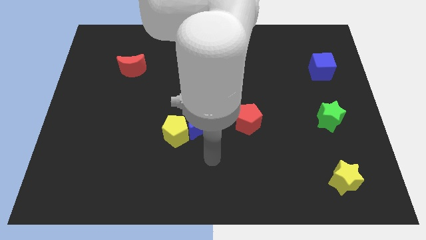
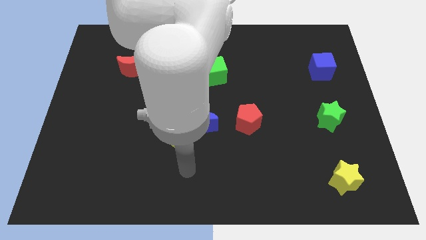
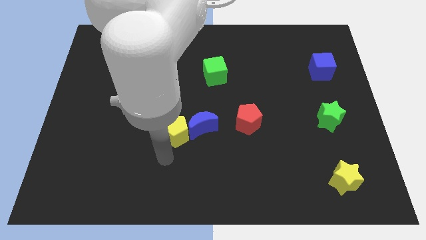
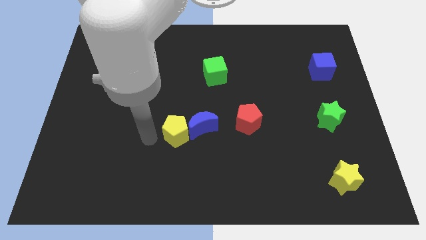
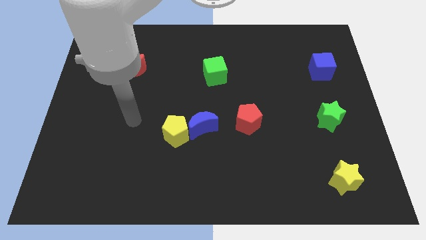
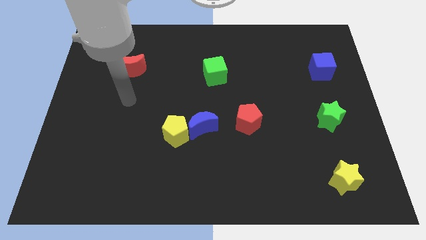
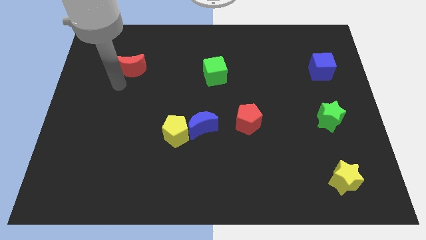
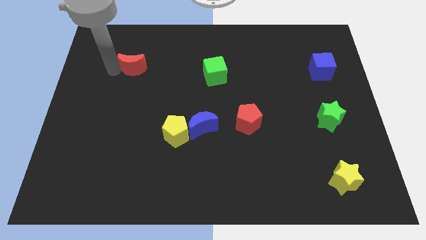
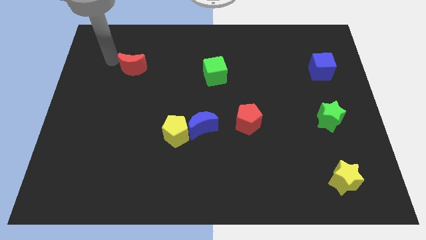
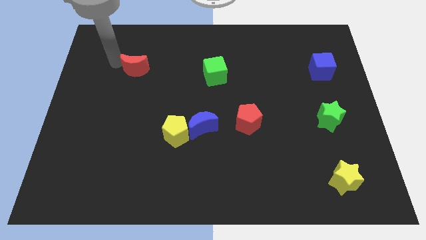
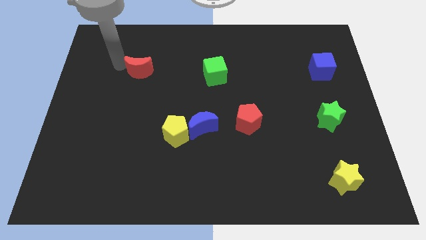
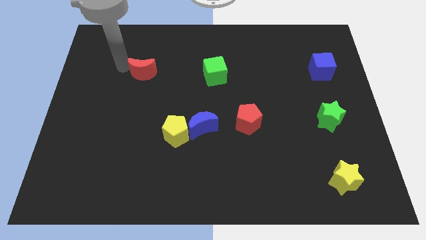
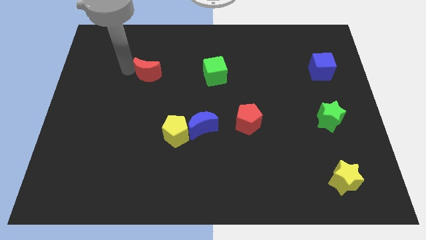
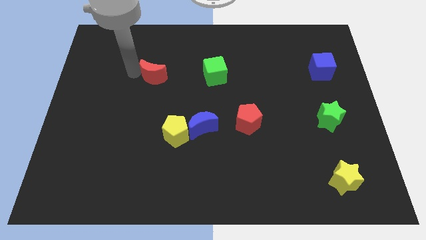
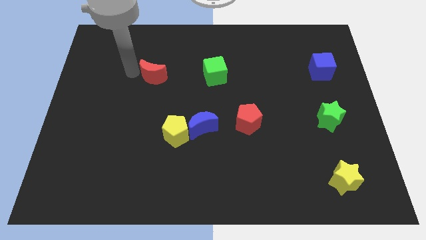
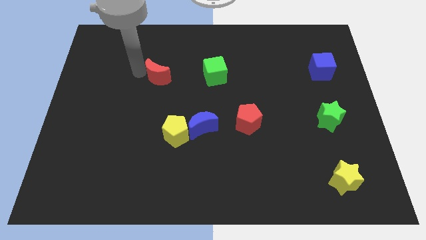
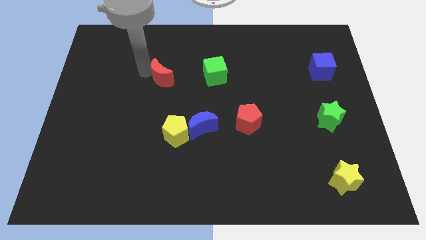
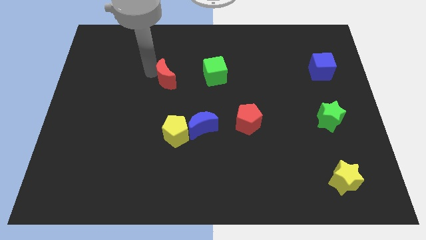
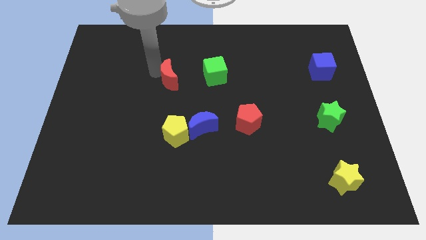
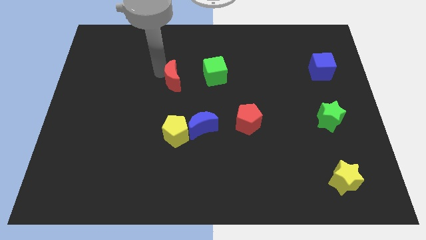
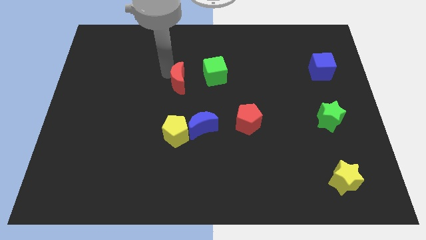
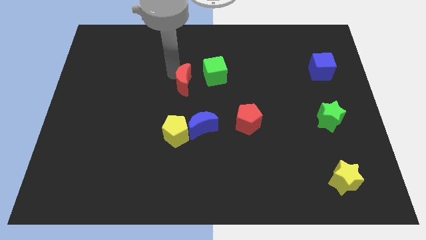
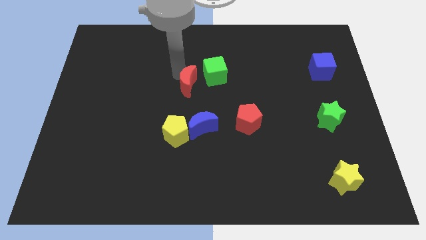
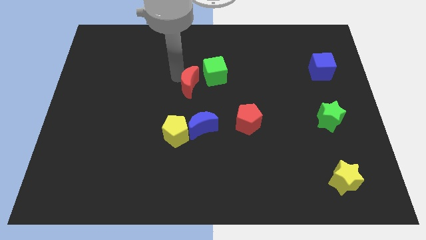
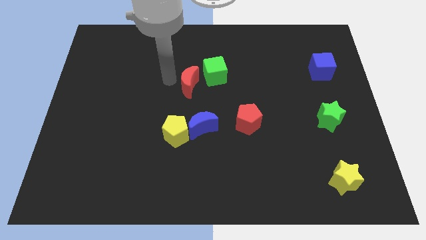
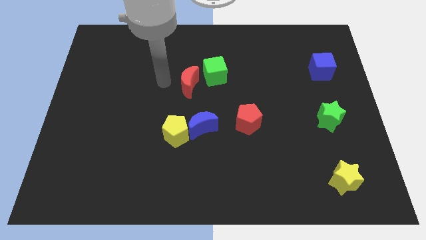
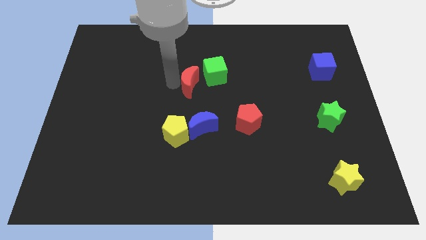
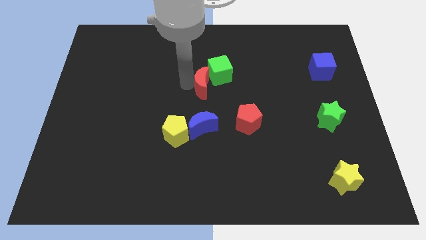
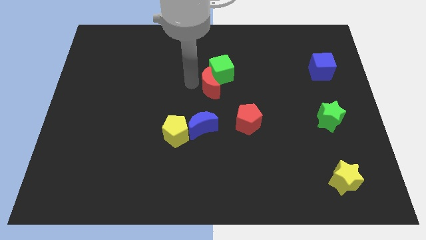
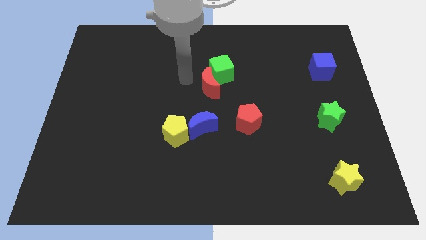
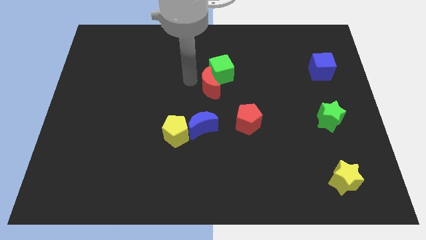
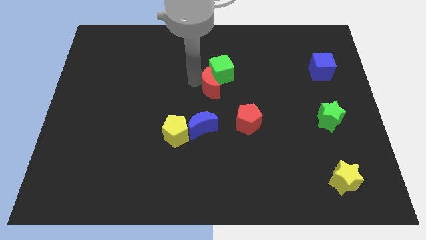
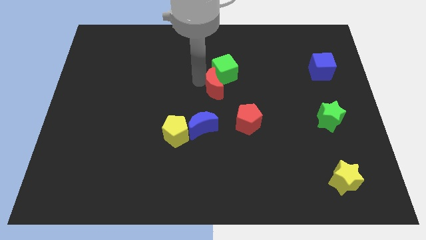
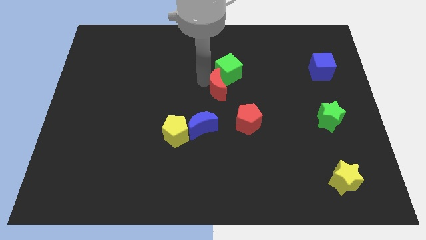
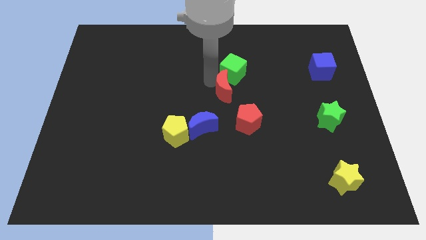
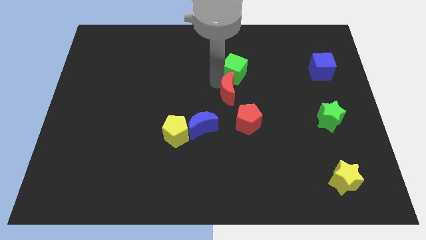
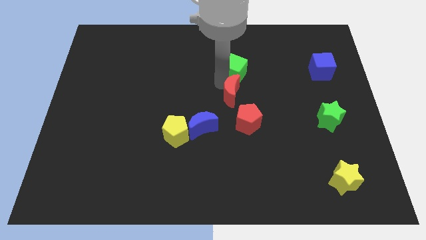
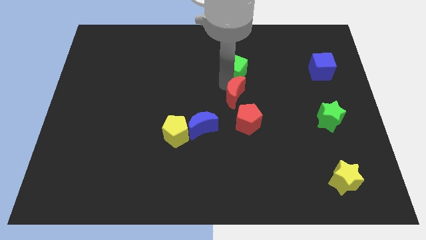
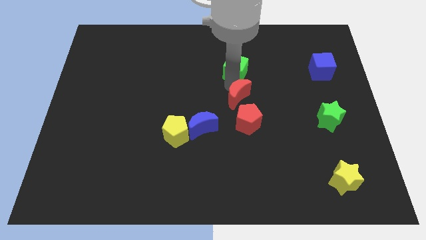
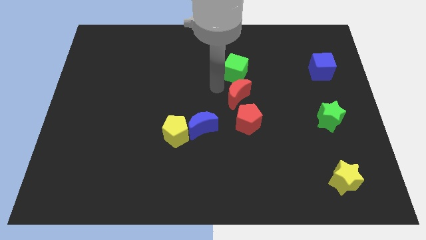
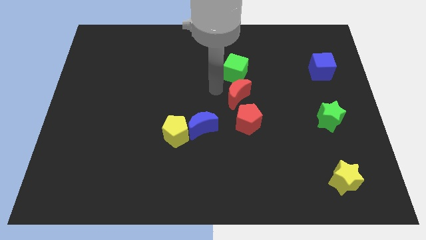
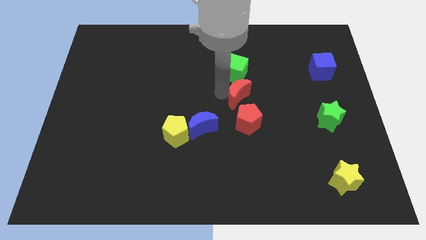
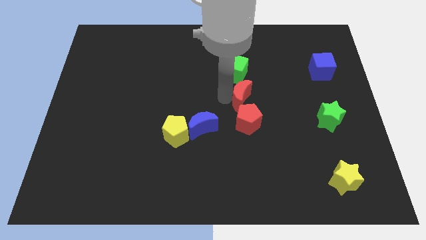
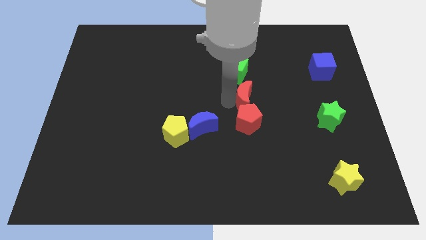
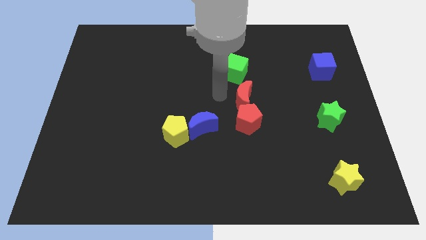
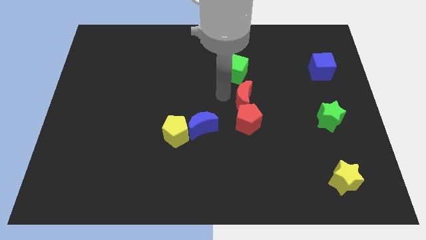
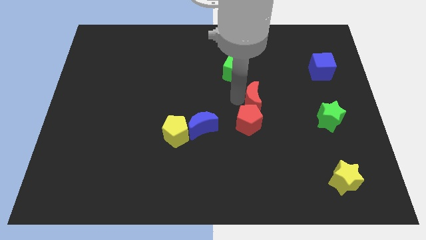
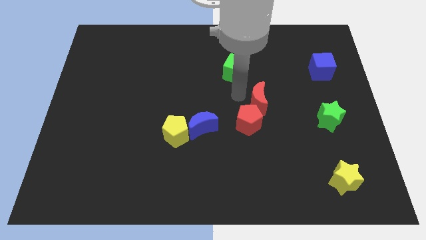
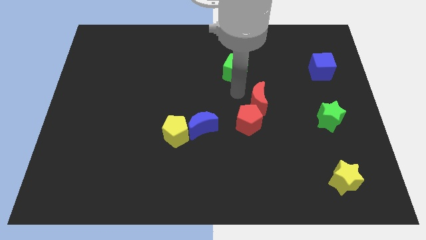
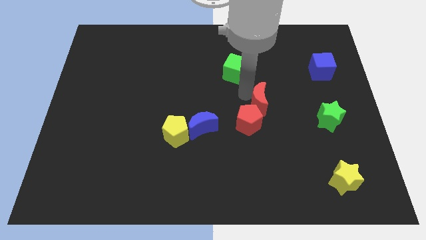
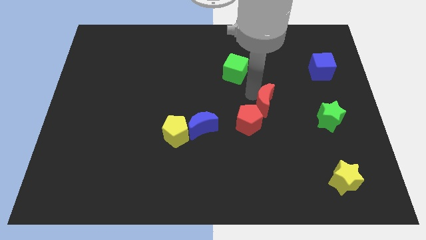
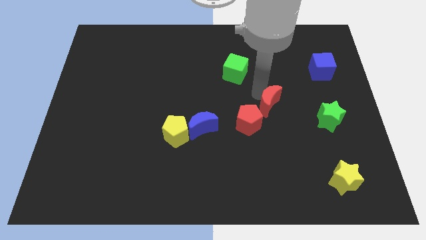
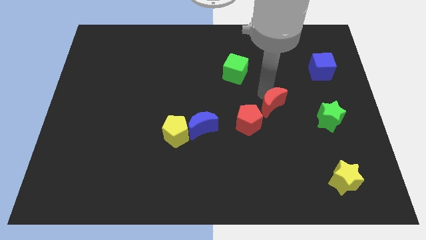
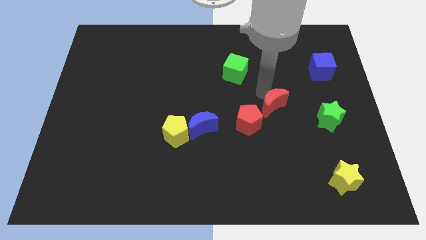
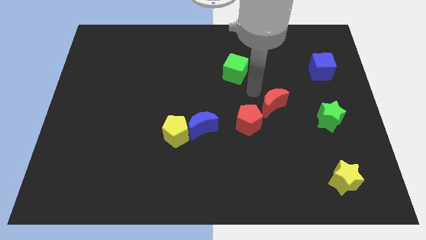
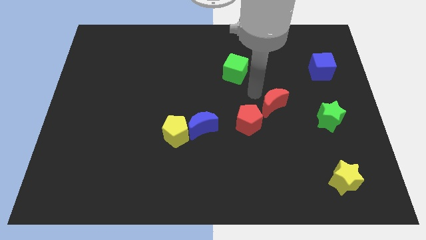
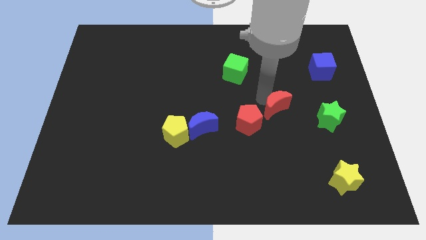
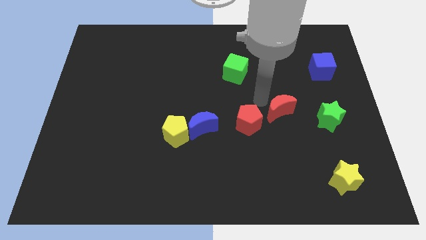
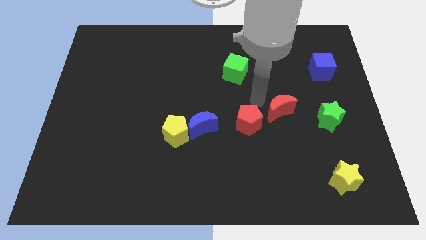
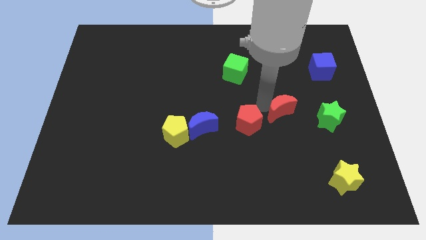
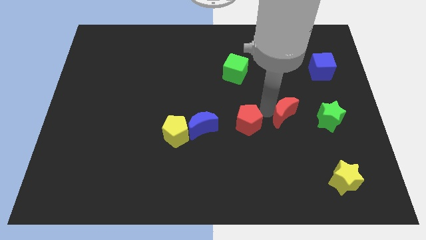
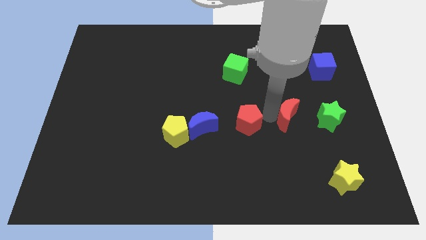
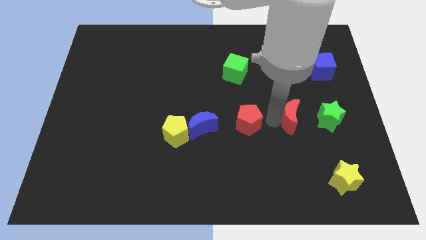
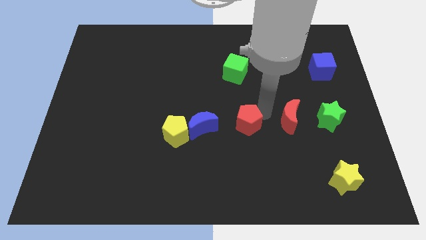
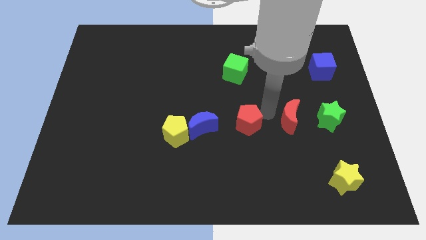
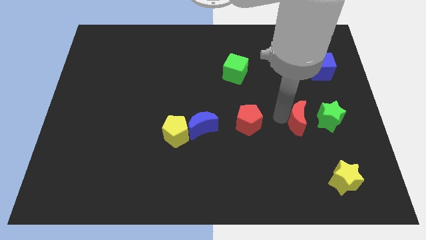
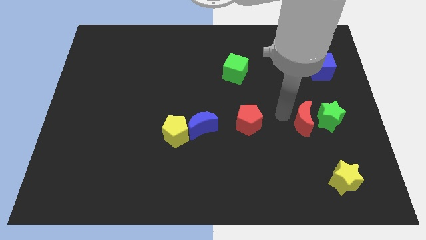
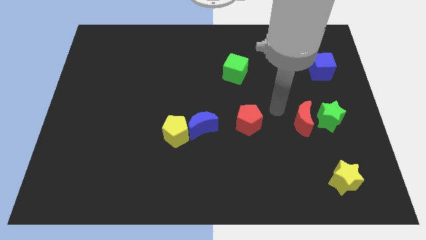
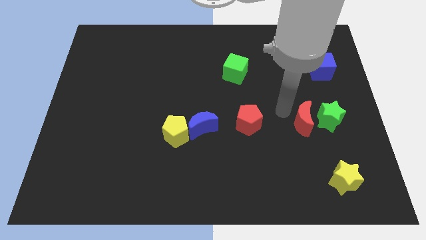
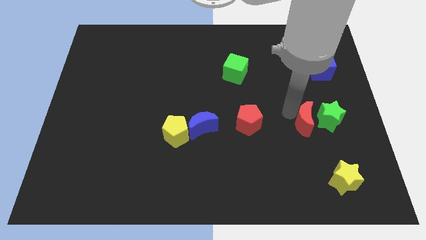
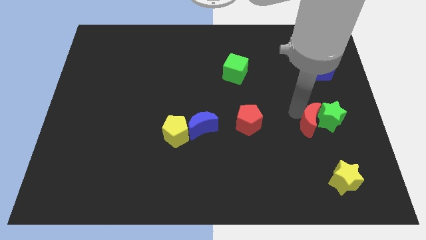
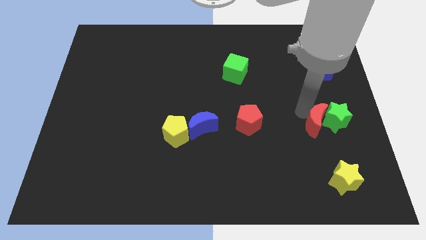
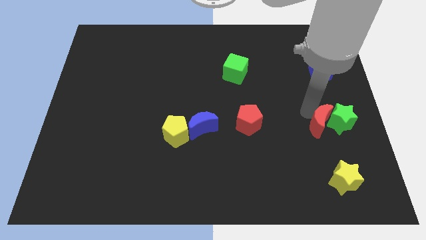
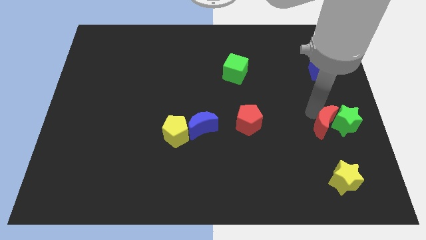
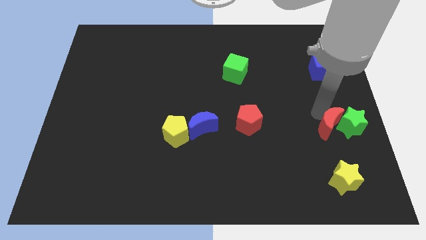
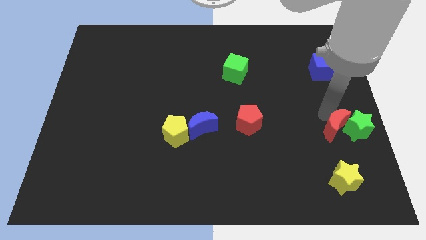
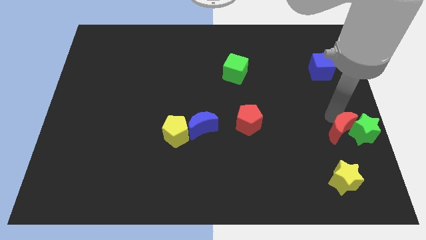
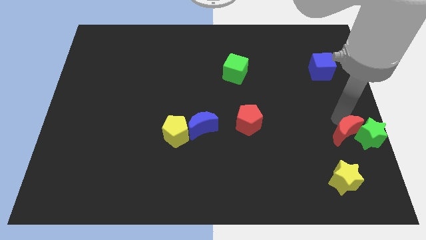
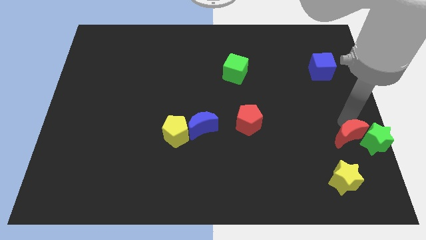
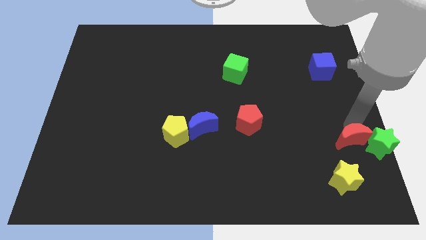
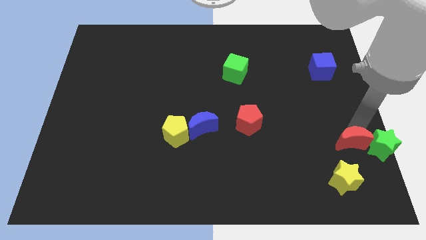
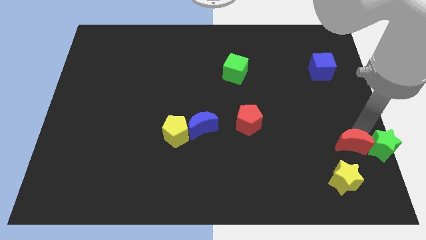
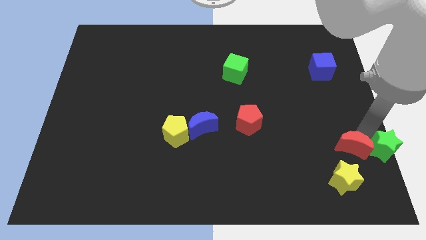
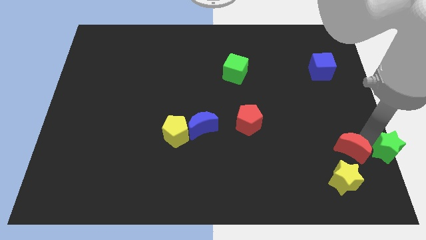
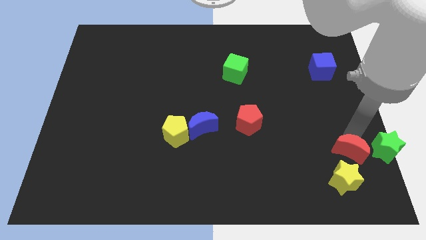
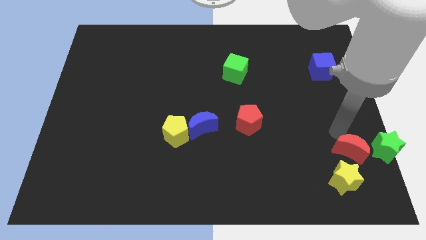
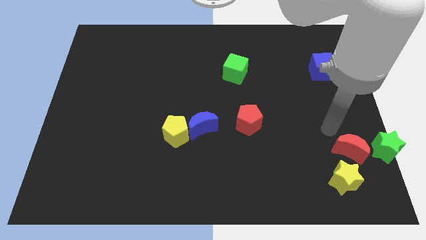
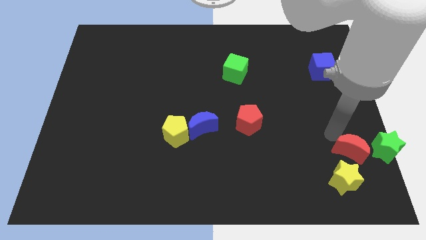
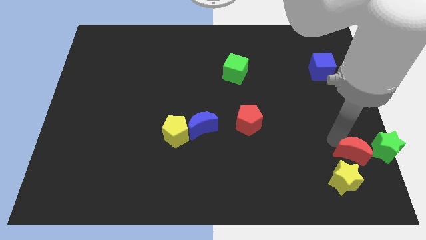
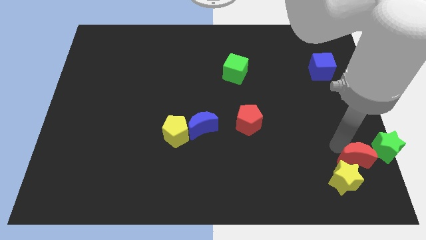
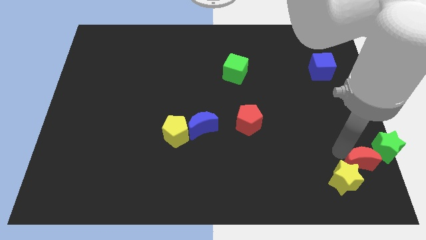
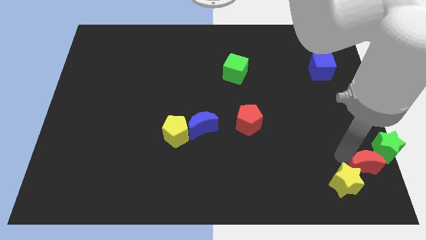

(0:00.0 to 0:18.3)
slide the red moon to the bottom right
